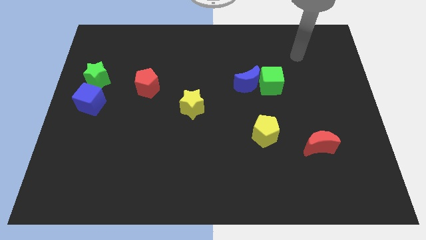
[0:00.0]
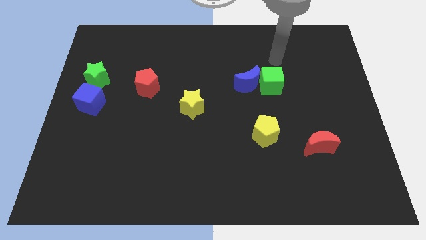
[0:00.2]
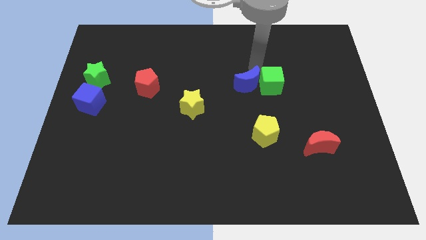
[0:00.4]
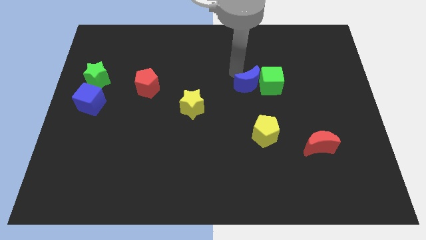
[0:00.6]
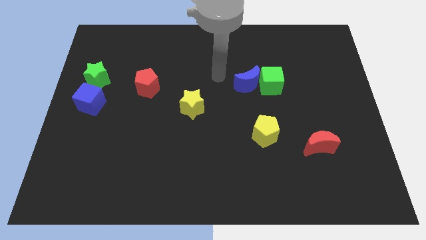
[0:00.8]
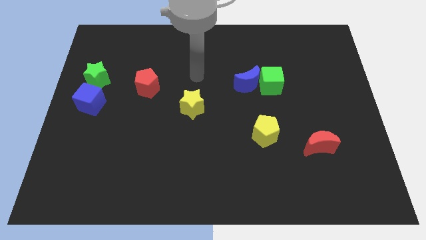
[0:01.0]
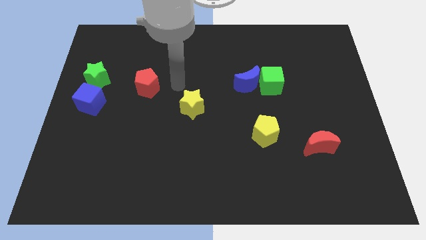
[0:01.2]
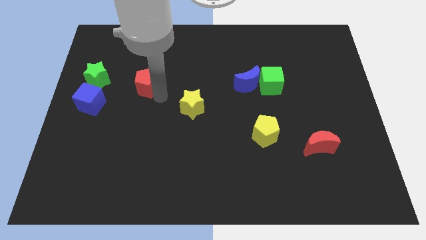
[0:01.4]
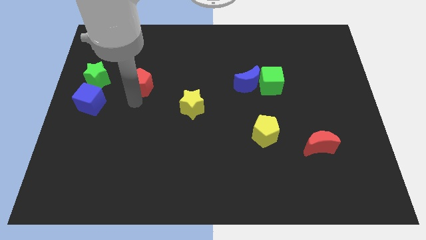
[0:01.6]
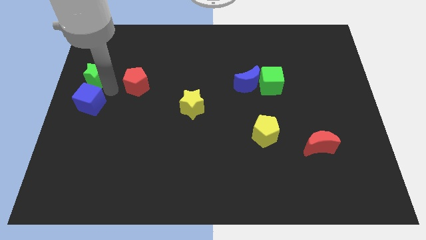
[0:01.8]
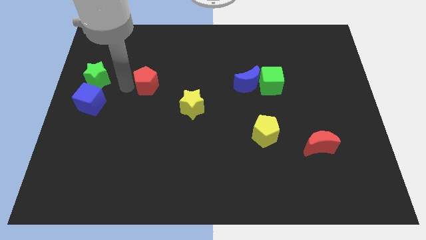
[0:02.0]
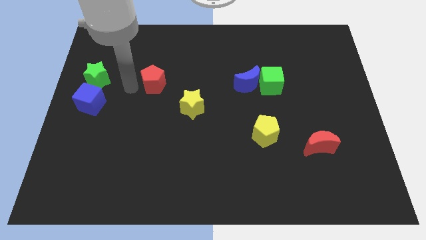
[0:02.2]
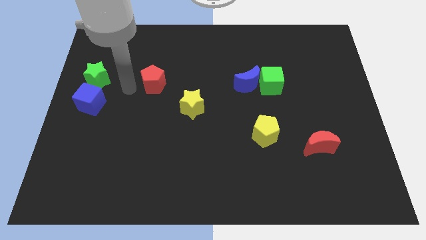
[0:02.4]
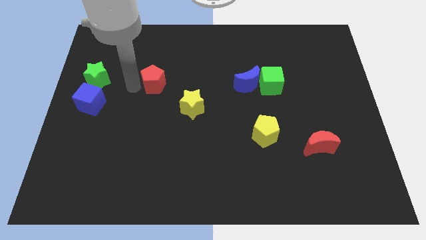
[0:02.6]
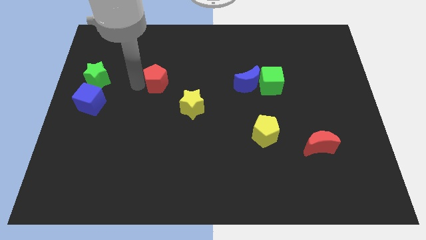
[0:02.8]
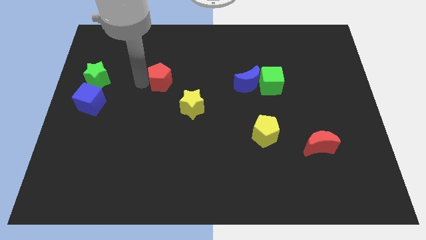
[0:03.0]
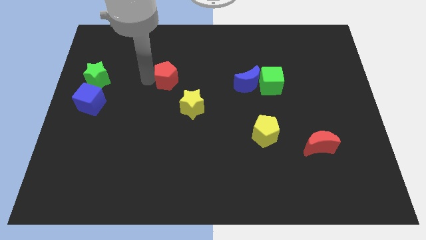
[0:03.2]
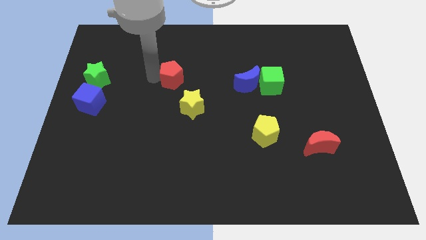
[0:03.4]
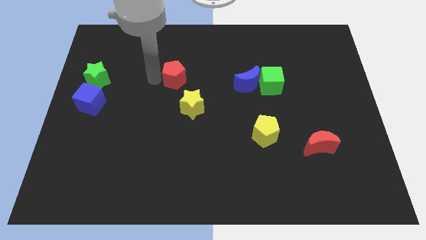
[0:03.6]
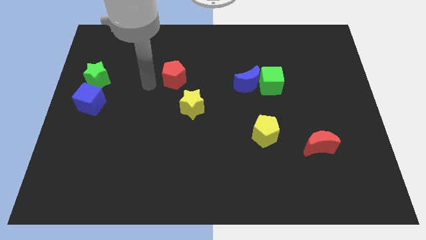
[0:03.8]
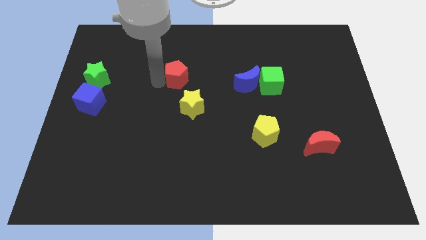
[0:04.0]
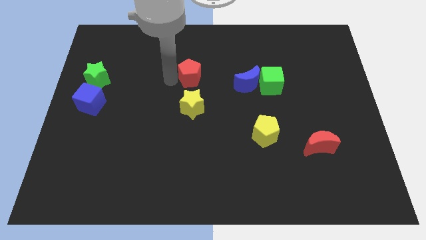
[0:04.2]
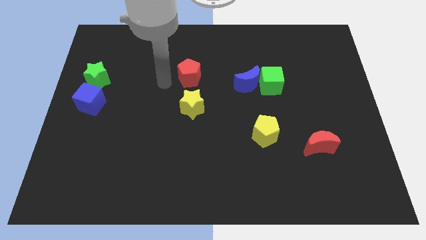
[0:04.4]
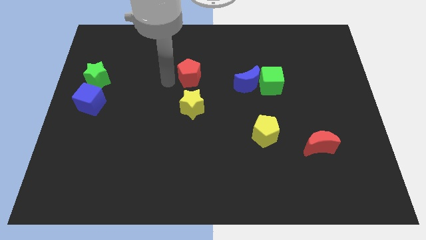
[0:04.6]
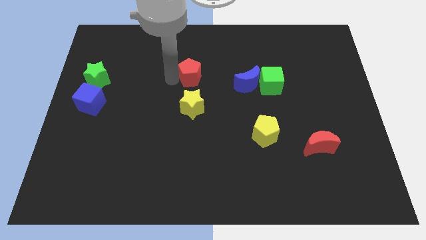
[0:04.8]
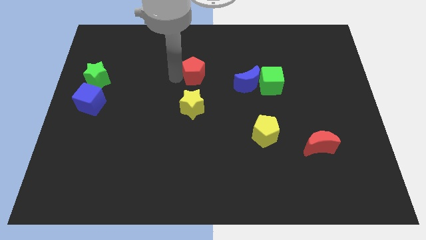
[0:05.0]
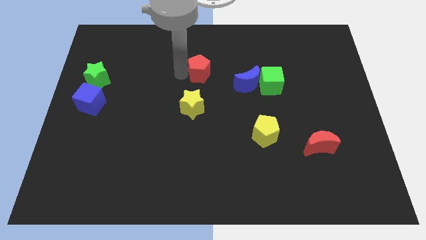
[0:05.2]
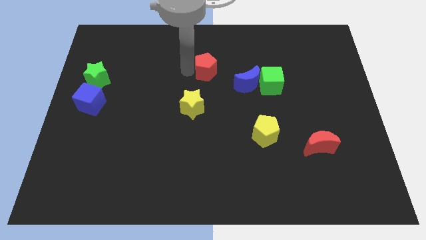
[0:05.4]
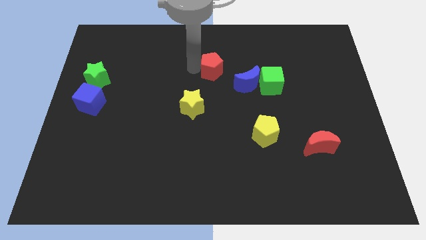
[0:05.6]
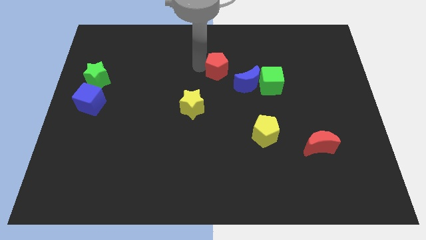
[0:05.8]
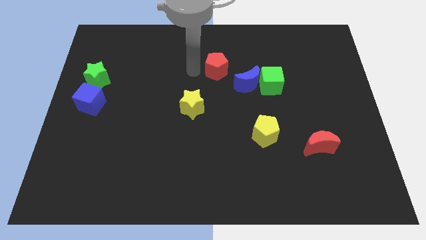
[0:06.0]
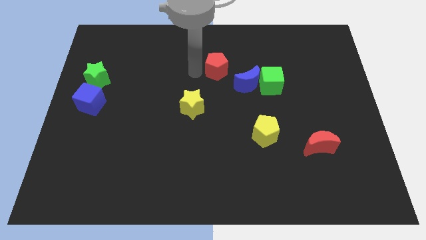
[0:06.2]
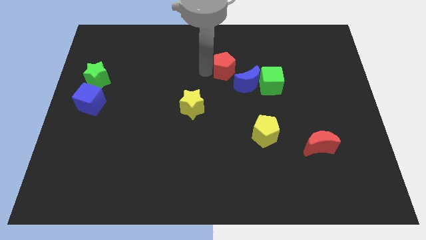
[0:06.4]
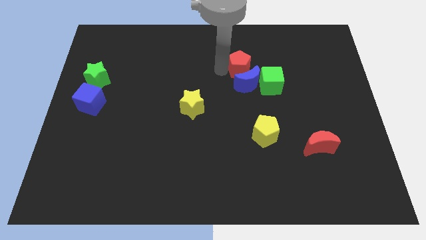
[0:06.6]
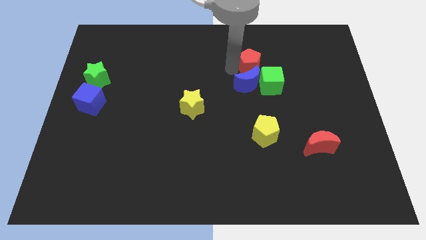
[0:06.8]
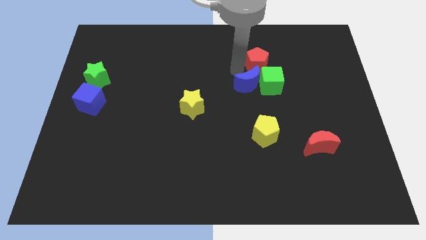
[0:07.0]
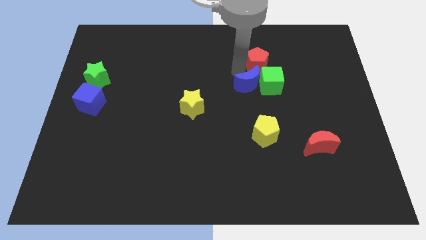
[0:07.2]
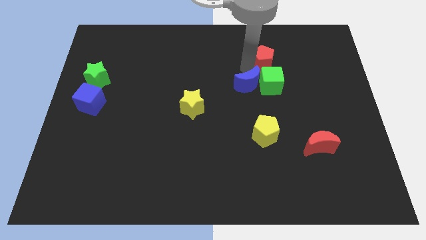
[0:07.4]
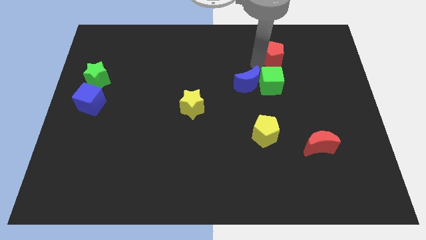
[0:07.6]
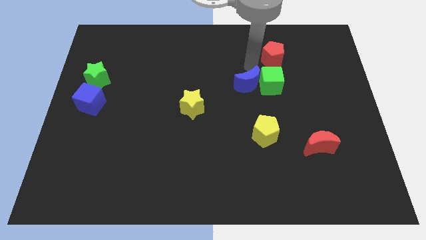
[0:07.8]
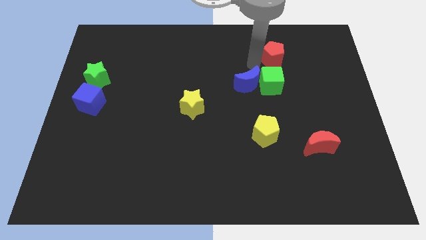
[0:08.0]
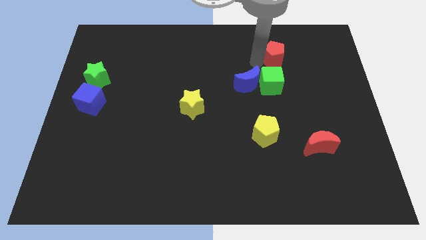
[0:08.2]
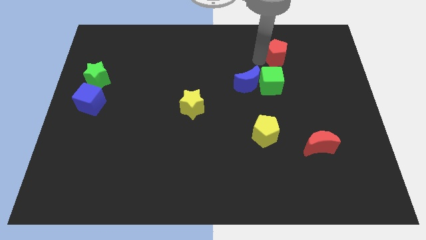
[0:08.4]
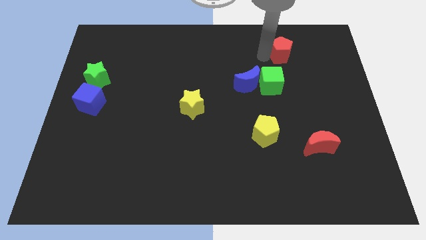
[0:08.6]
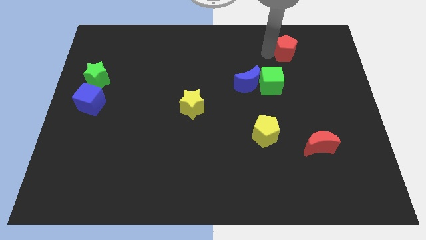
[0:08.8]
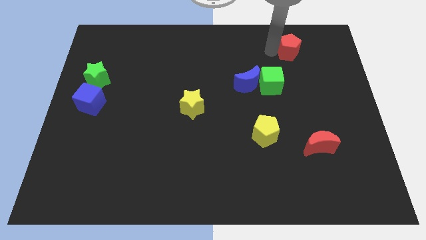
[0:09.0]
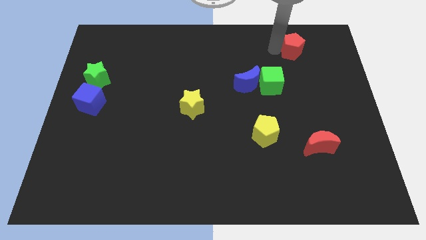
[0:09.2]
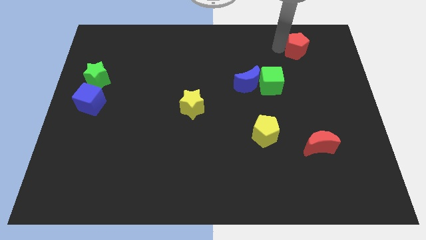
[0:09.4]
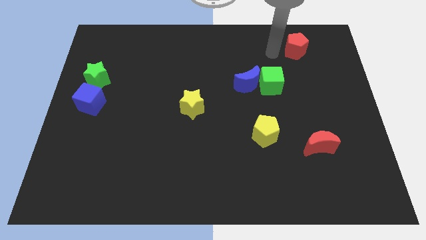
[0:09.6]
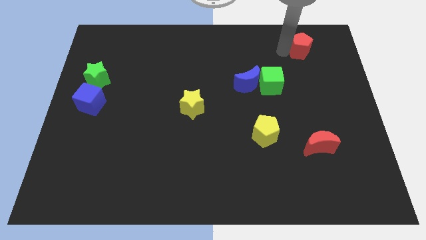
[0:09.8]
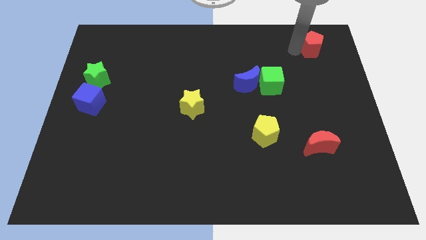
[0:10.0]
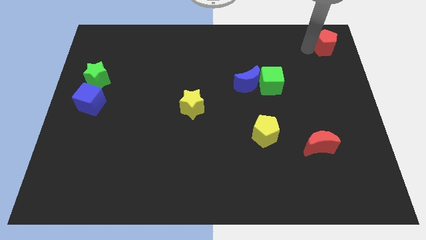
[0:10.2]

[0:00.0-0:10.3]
slide the red pentagon to the top right of the board

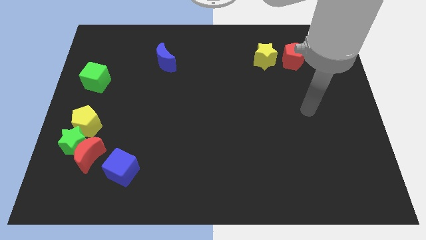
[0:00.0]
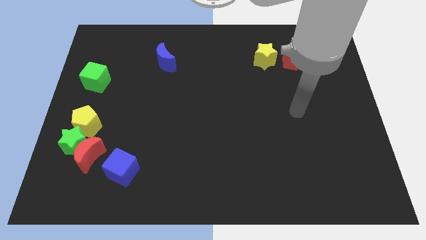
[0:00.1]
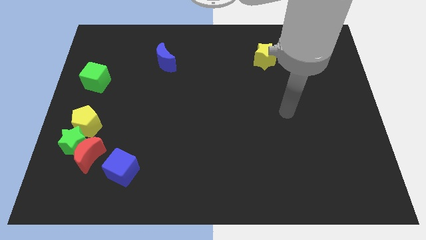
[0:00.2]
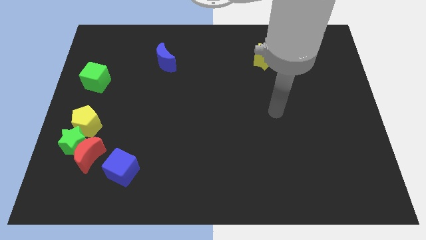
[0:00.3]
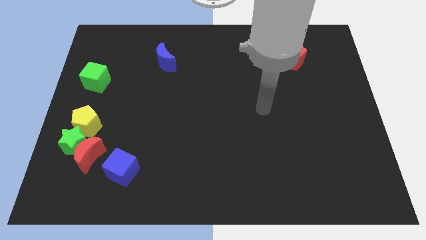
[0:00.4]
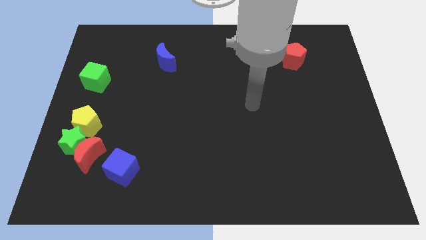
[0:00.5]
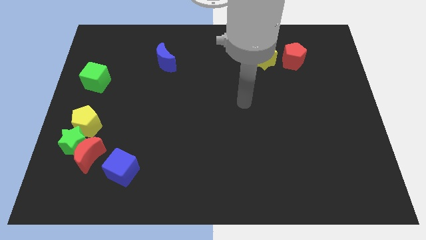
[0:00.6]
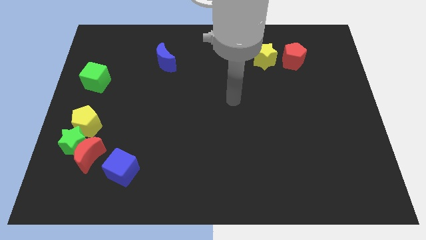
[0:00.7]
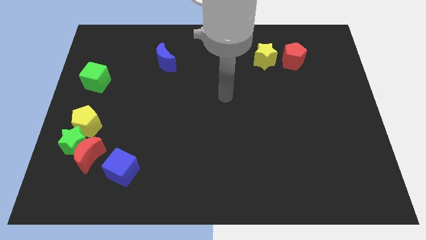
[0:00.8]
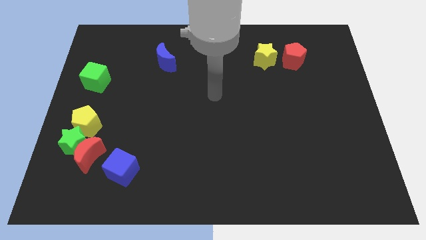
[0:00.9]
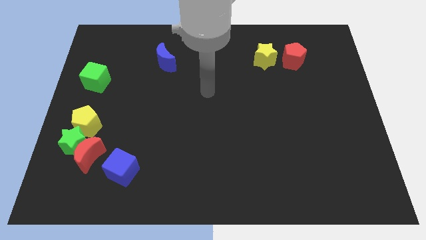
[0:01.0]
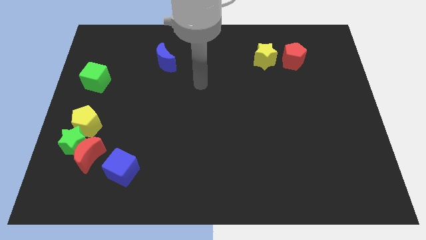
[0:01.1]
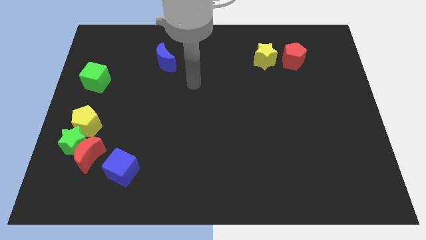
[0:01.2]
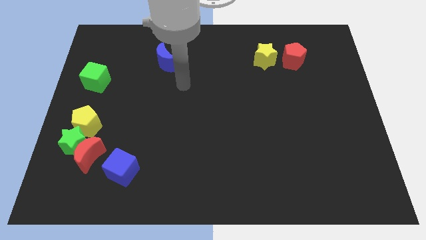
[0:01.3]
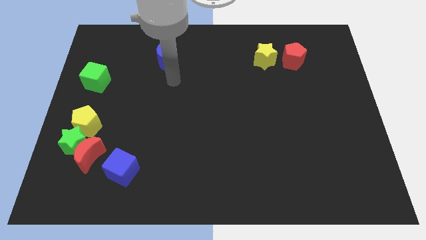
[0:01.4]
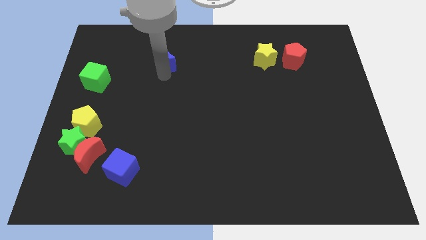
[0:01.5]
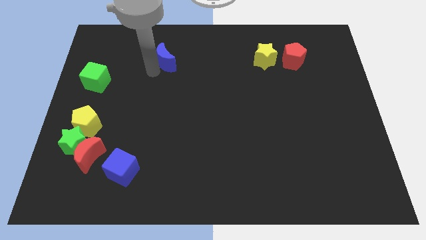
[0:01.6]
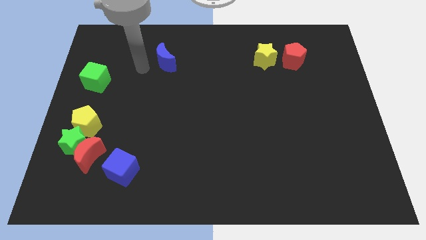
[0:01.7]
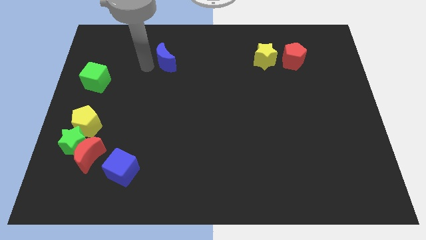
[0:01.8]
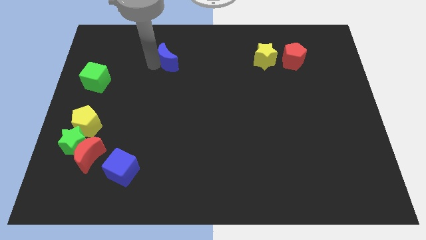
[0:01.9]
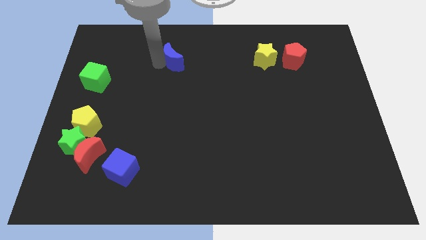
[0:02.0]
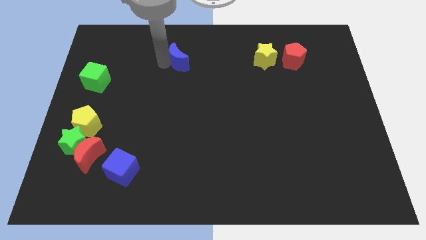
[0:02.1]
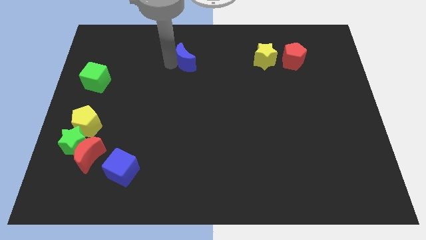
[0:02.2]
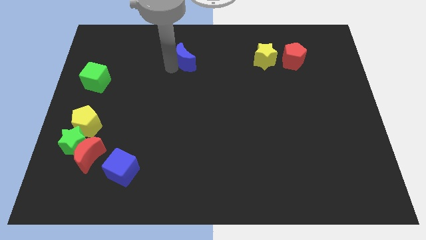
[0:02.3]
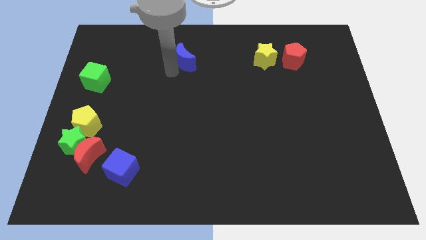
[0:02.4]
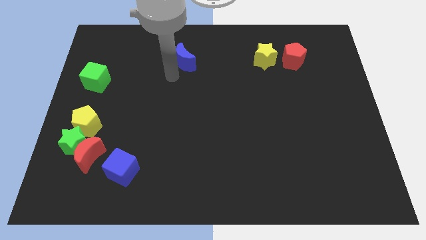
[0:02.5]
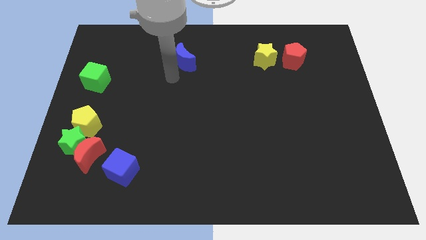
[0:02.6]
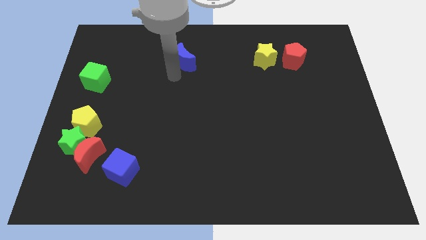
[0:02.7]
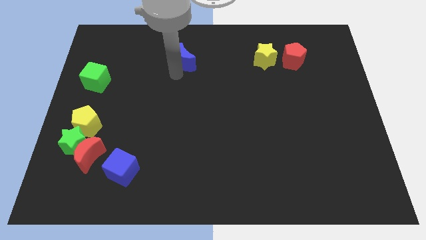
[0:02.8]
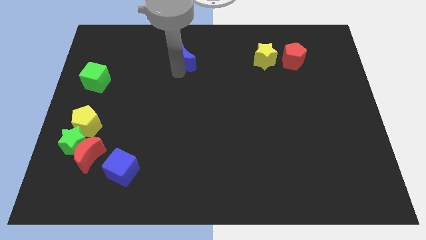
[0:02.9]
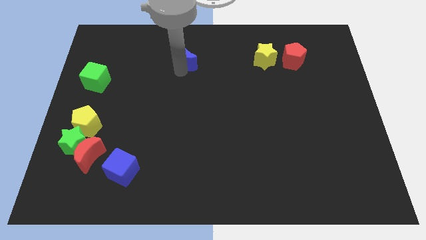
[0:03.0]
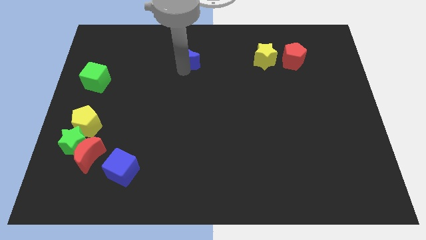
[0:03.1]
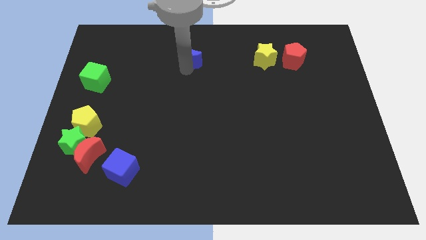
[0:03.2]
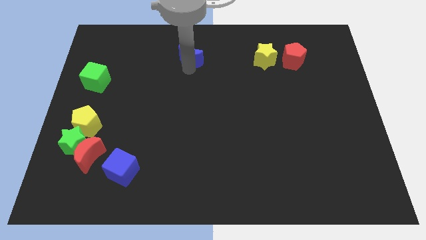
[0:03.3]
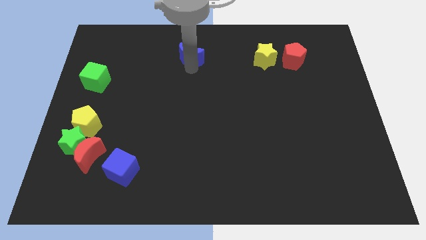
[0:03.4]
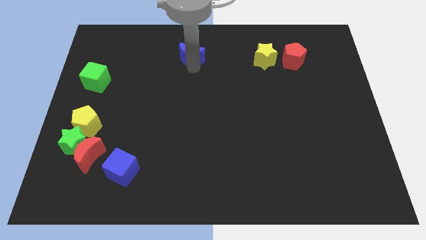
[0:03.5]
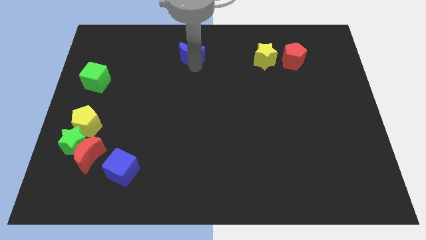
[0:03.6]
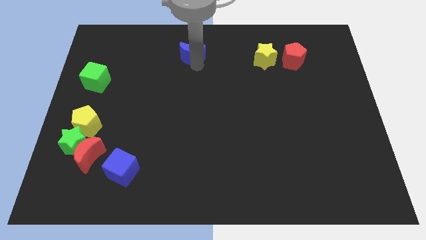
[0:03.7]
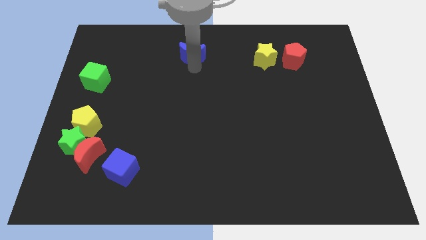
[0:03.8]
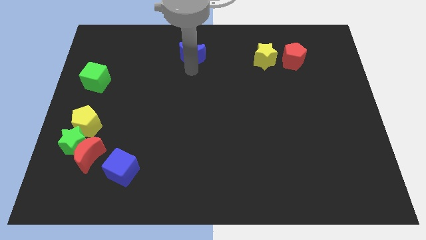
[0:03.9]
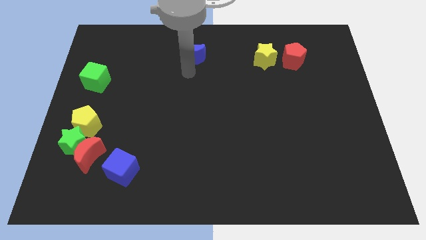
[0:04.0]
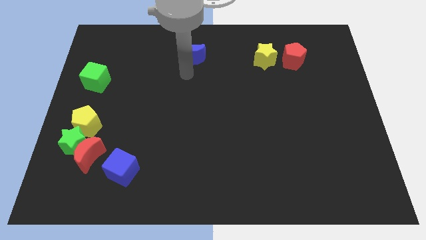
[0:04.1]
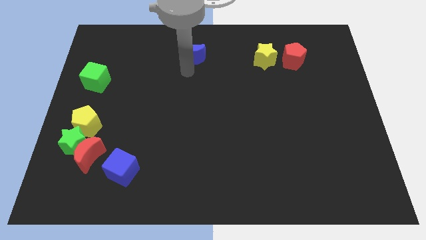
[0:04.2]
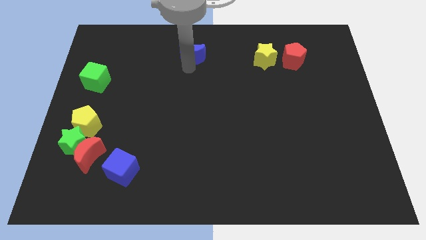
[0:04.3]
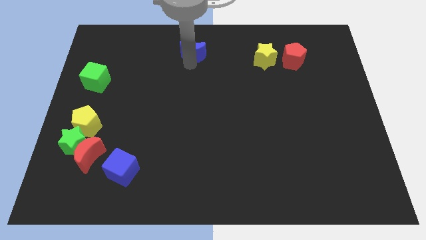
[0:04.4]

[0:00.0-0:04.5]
move the blue moon to the top side
